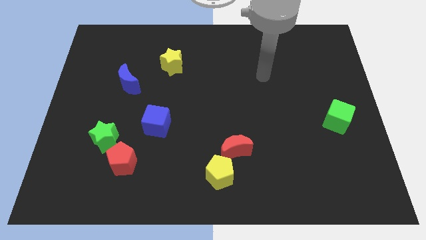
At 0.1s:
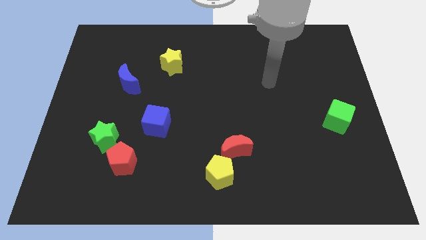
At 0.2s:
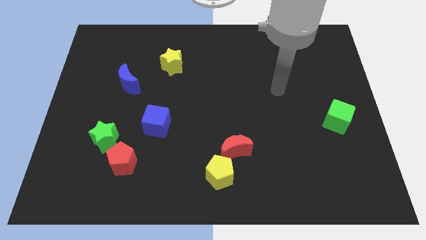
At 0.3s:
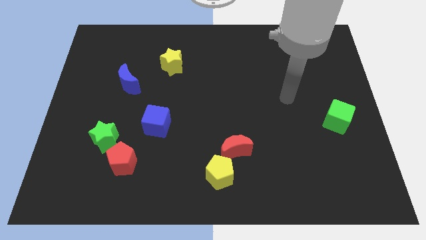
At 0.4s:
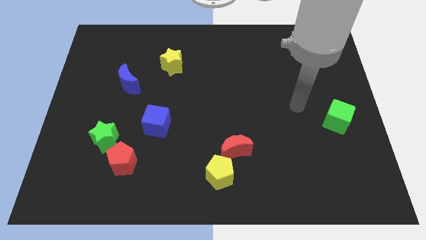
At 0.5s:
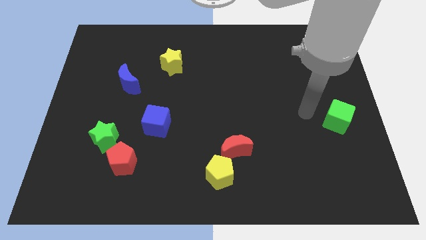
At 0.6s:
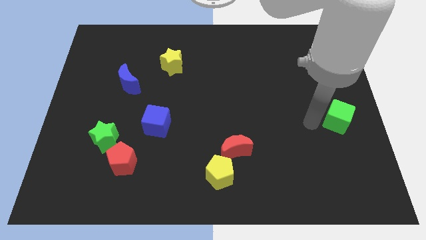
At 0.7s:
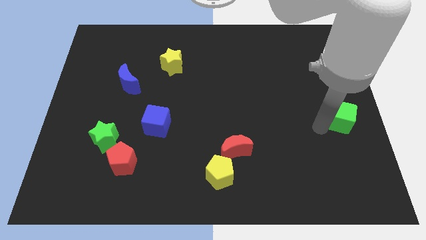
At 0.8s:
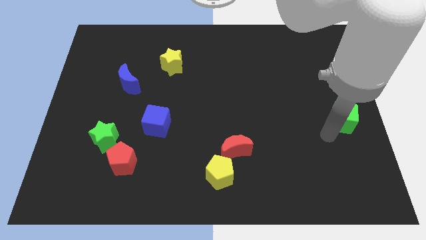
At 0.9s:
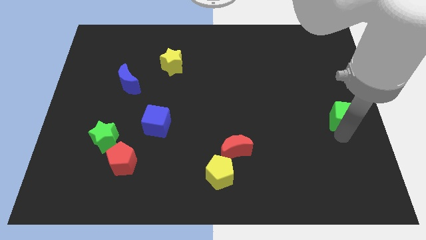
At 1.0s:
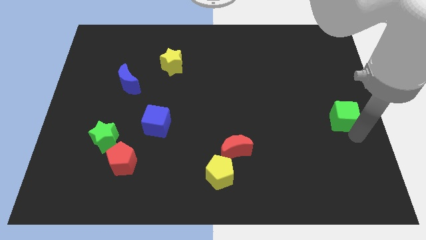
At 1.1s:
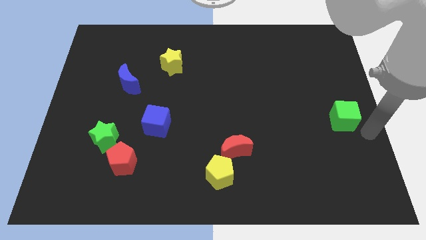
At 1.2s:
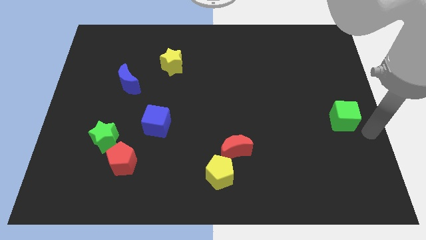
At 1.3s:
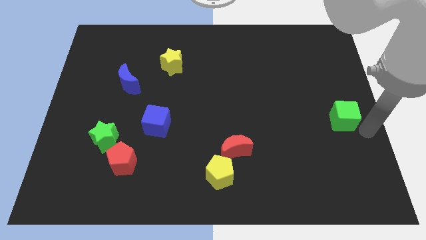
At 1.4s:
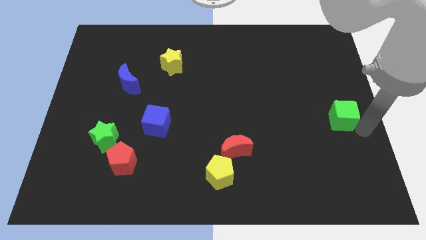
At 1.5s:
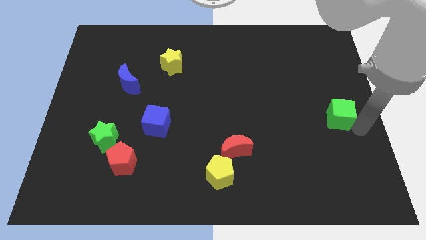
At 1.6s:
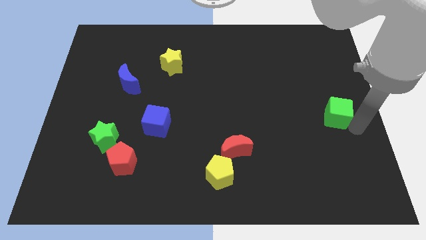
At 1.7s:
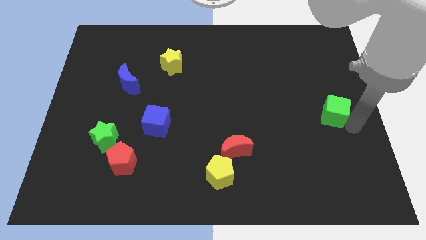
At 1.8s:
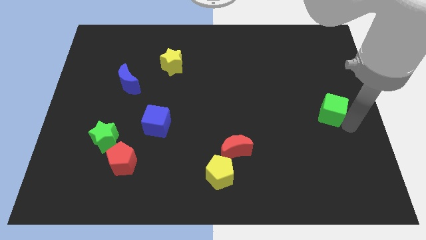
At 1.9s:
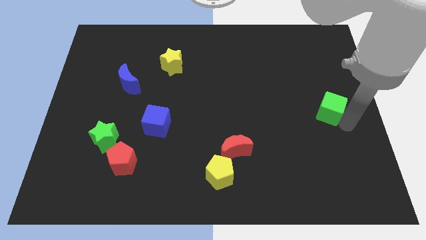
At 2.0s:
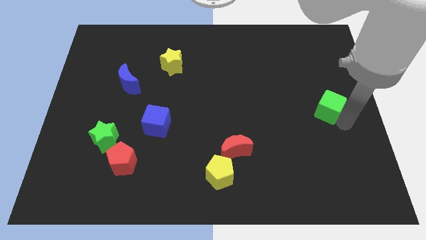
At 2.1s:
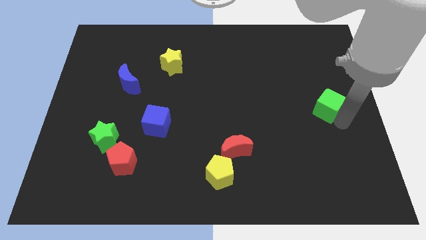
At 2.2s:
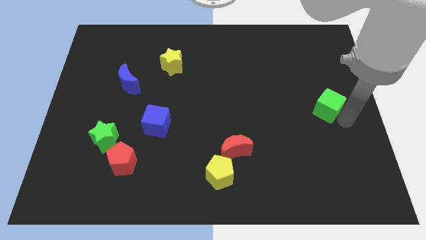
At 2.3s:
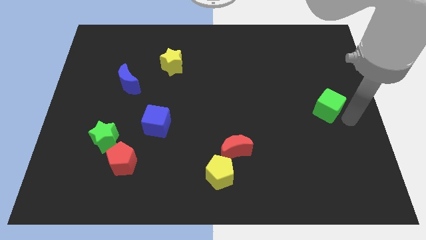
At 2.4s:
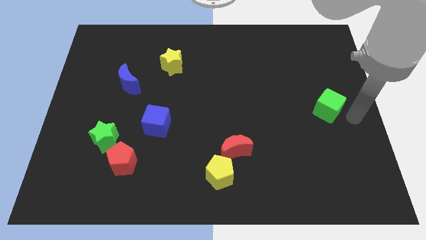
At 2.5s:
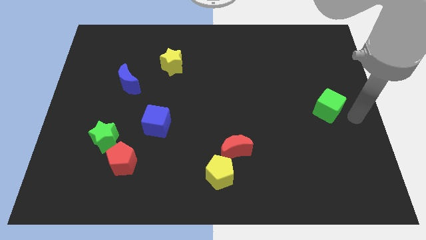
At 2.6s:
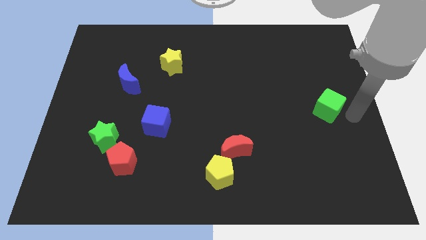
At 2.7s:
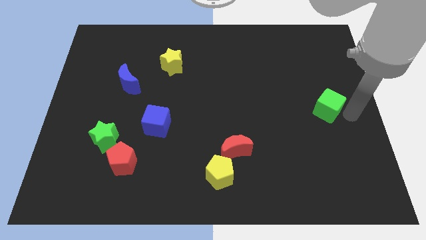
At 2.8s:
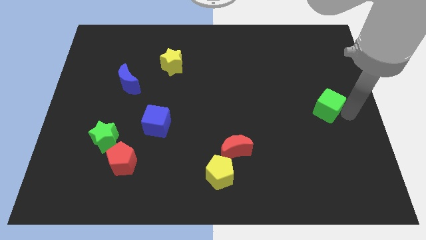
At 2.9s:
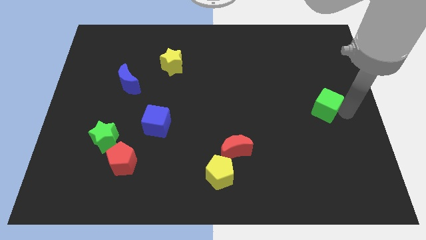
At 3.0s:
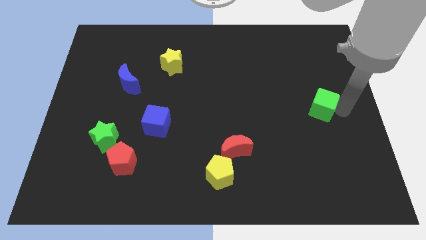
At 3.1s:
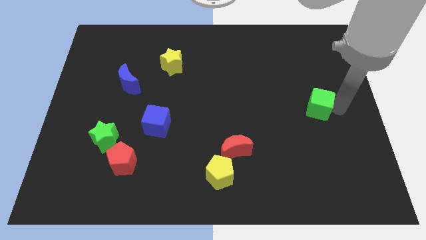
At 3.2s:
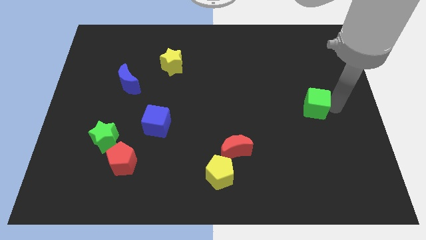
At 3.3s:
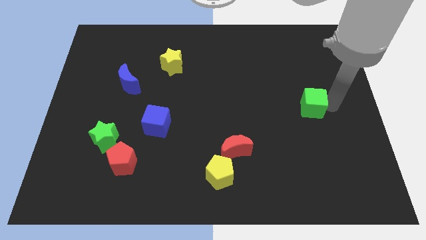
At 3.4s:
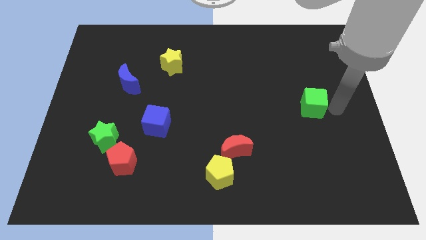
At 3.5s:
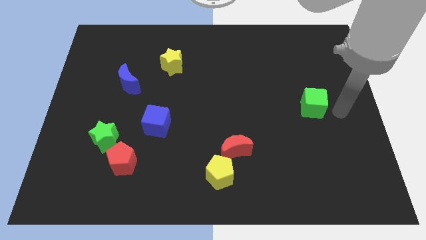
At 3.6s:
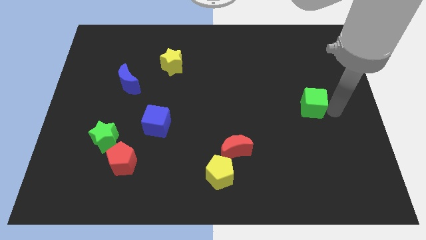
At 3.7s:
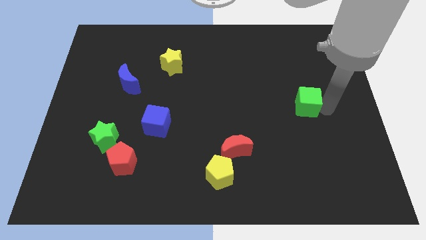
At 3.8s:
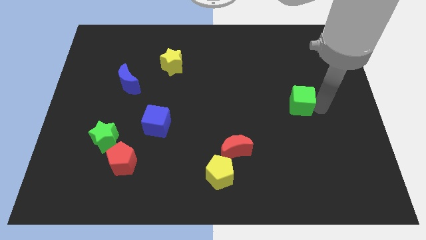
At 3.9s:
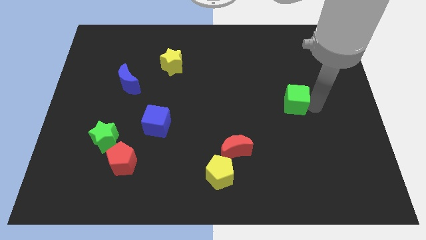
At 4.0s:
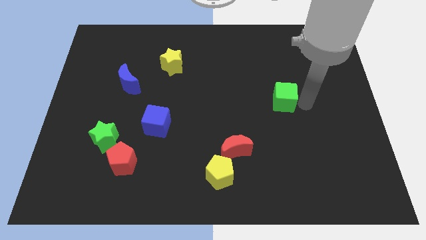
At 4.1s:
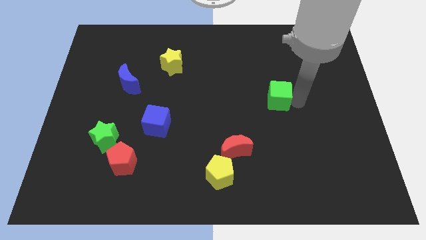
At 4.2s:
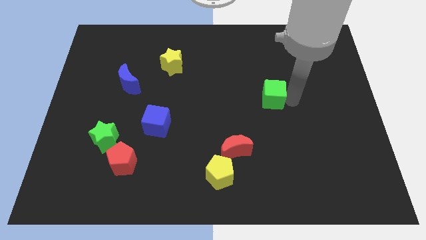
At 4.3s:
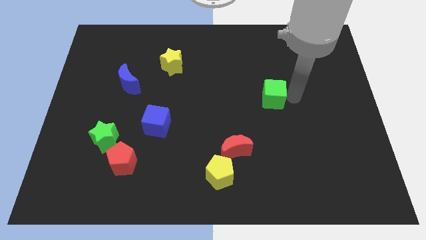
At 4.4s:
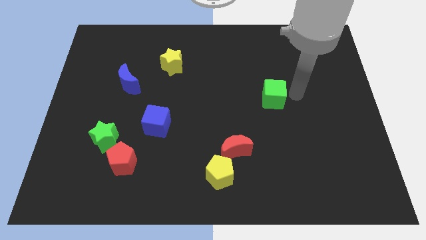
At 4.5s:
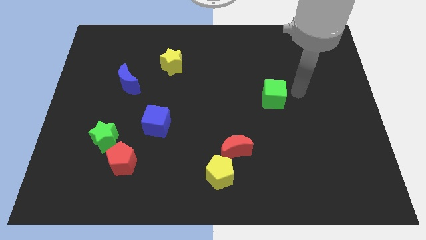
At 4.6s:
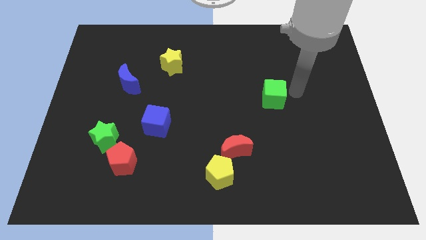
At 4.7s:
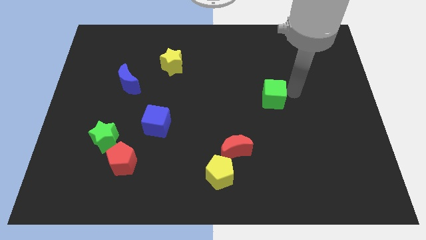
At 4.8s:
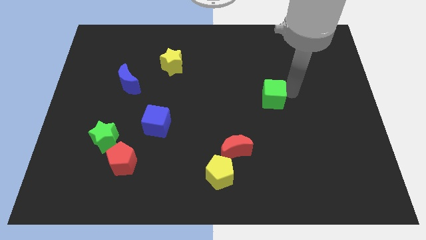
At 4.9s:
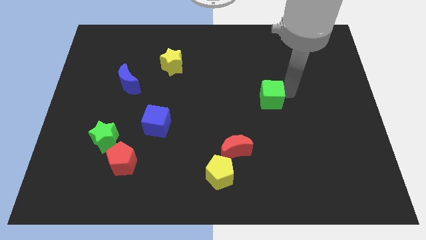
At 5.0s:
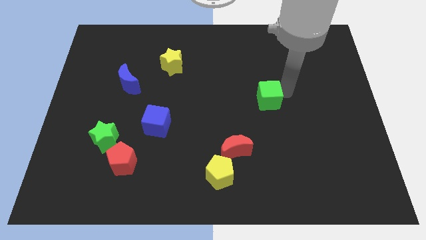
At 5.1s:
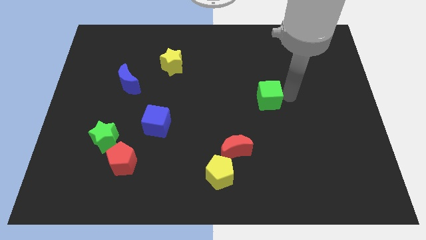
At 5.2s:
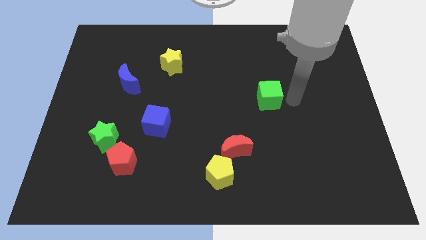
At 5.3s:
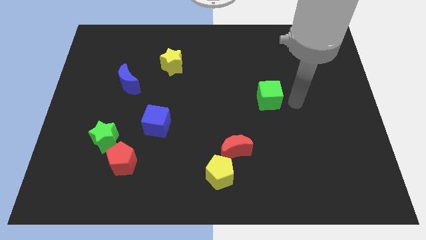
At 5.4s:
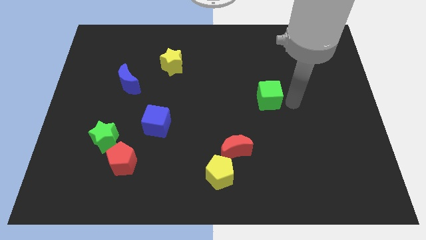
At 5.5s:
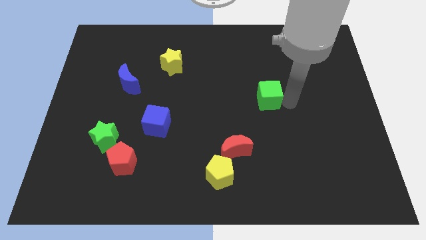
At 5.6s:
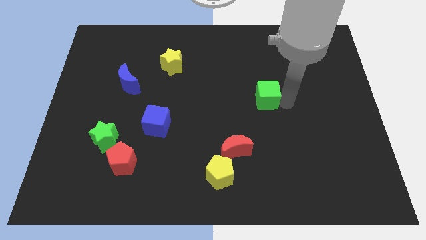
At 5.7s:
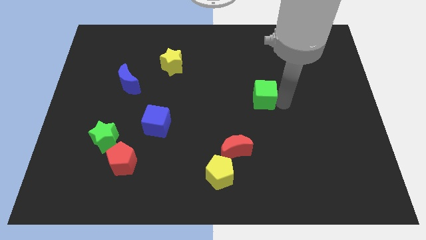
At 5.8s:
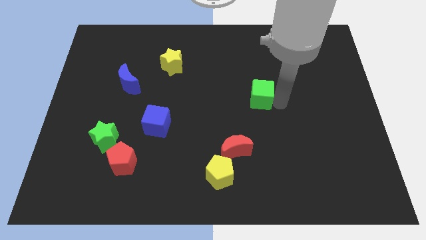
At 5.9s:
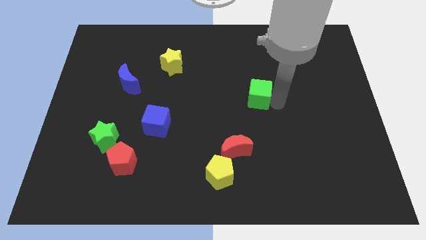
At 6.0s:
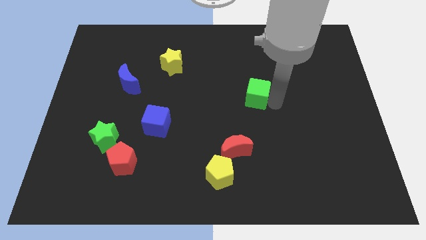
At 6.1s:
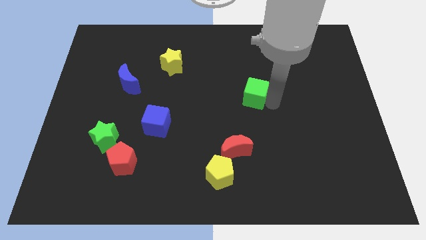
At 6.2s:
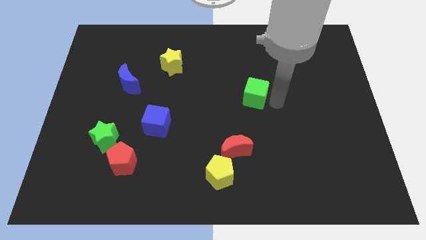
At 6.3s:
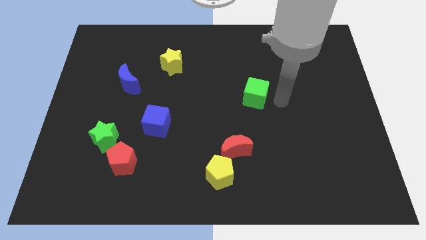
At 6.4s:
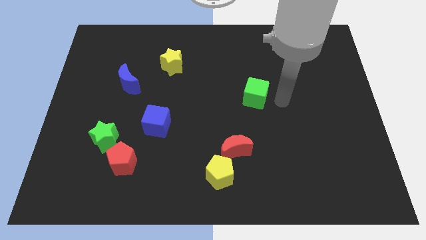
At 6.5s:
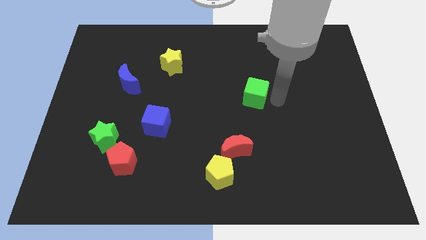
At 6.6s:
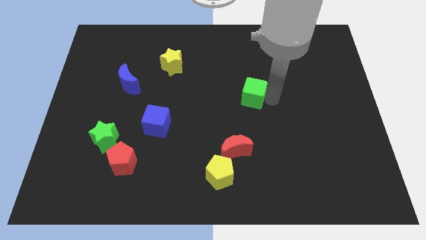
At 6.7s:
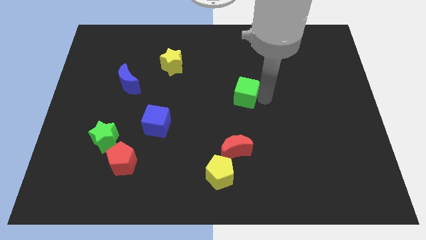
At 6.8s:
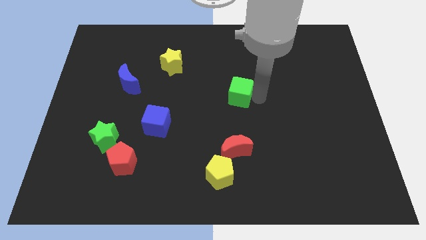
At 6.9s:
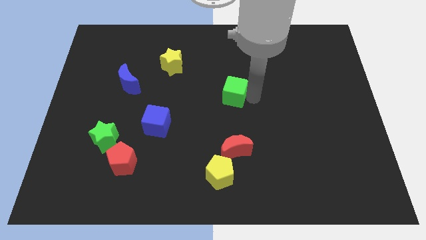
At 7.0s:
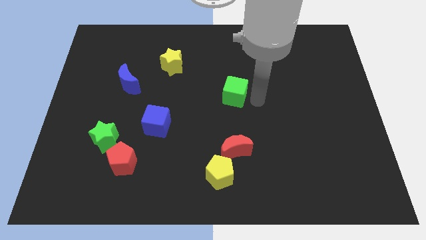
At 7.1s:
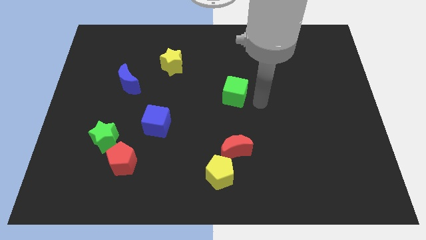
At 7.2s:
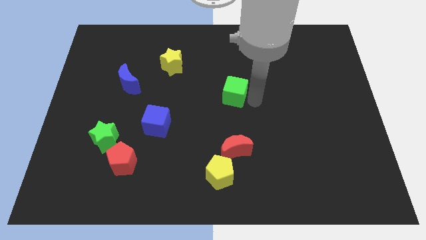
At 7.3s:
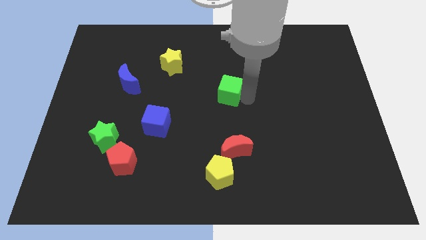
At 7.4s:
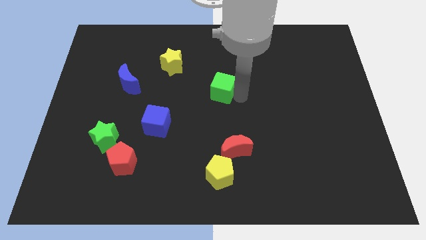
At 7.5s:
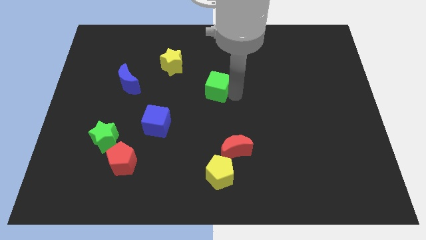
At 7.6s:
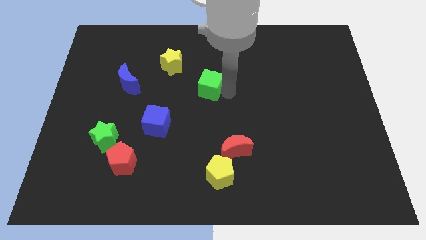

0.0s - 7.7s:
slide the green cube to the bottom right side of the yellow star
